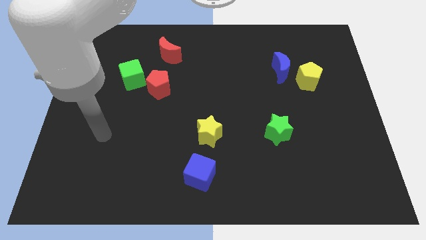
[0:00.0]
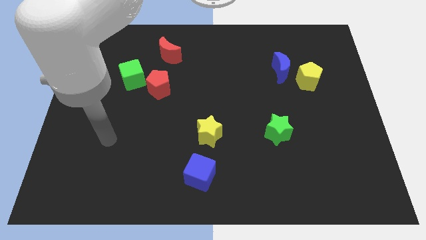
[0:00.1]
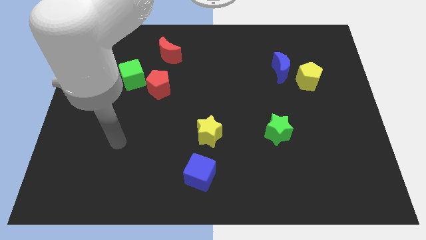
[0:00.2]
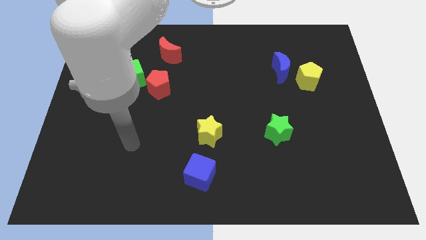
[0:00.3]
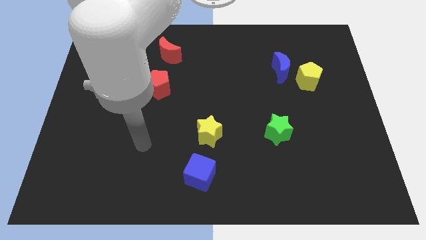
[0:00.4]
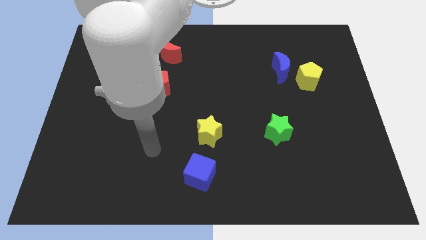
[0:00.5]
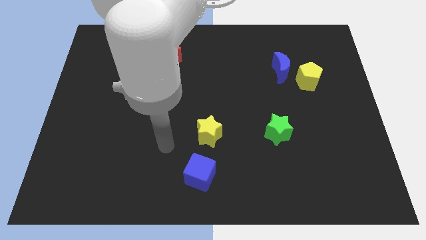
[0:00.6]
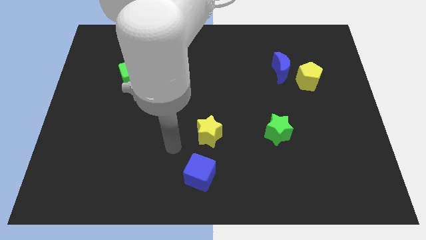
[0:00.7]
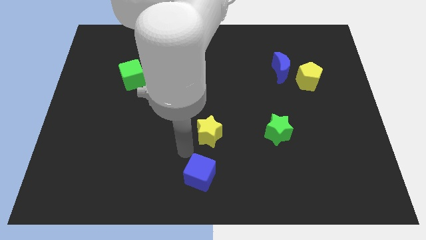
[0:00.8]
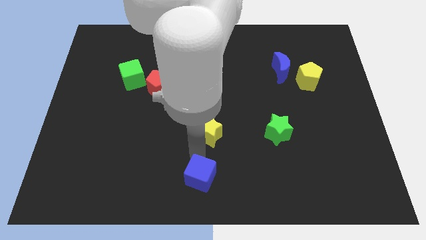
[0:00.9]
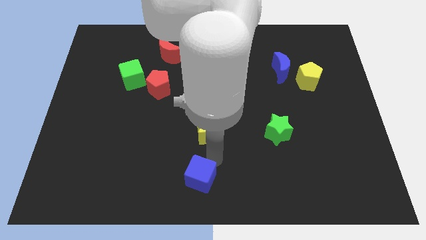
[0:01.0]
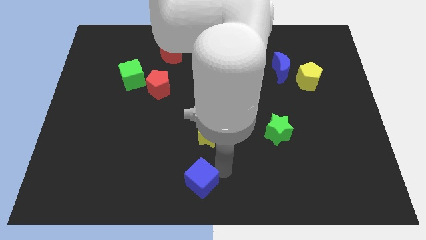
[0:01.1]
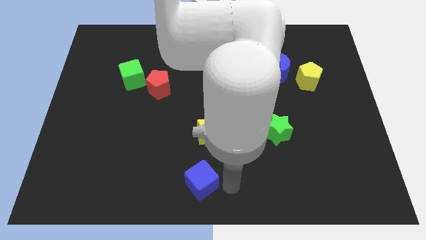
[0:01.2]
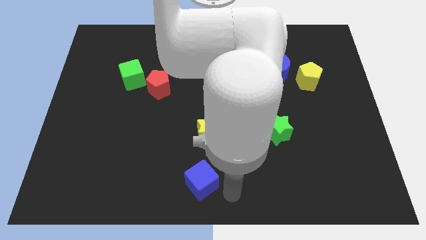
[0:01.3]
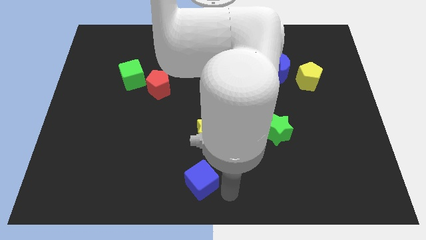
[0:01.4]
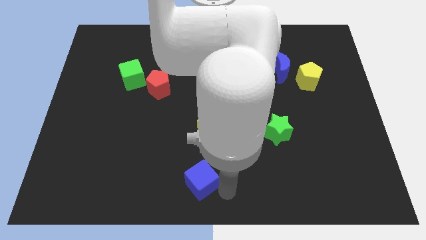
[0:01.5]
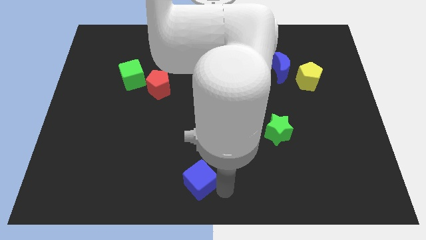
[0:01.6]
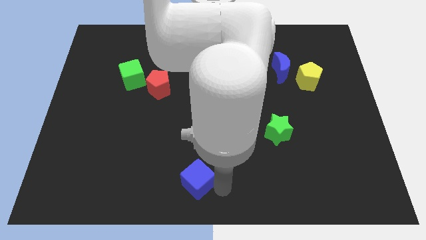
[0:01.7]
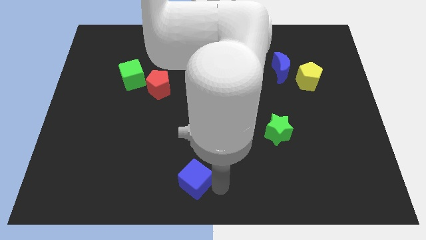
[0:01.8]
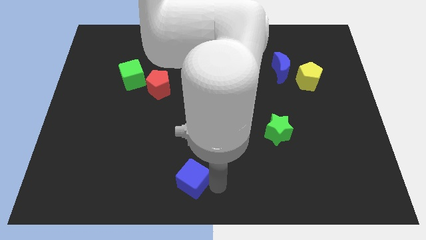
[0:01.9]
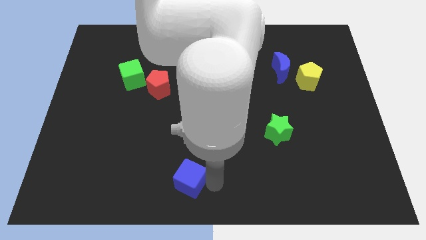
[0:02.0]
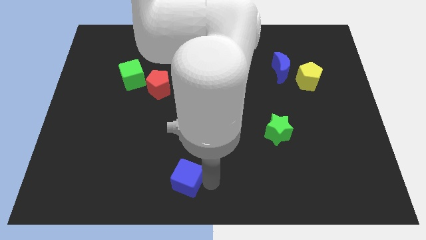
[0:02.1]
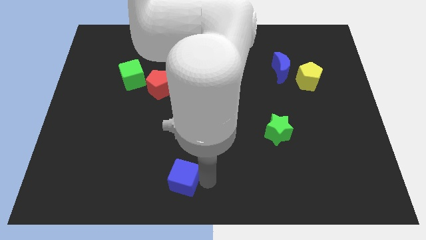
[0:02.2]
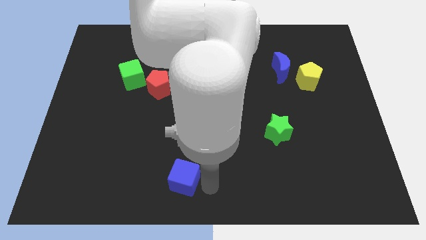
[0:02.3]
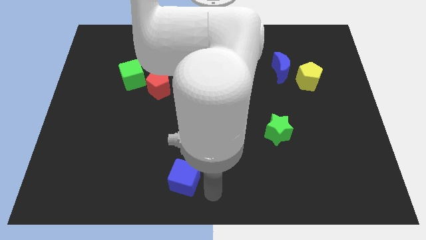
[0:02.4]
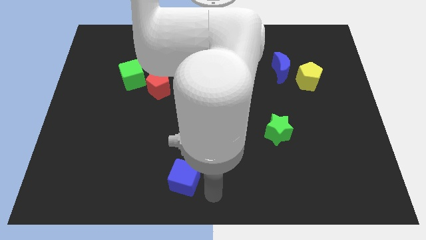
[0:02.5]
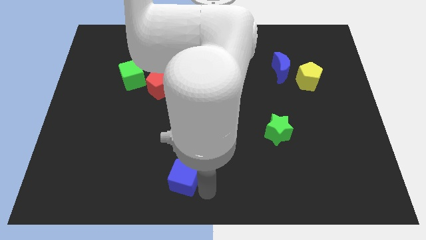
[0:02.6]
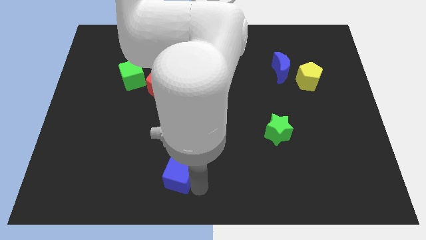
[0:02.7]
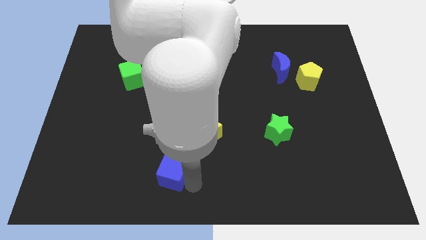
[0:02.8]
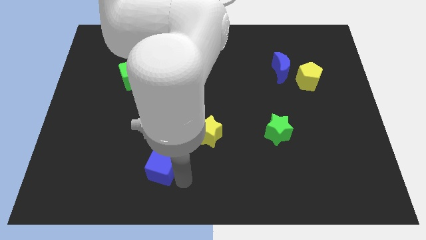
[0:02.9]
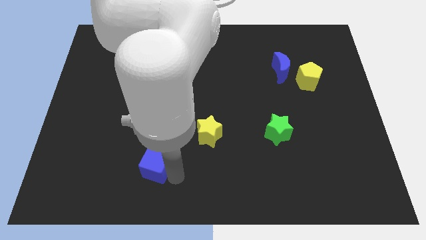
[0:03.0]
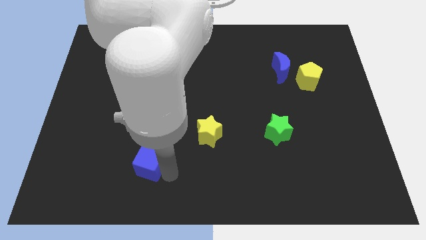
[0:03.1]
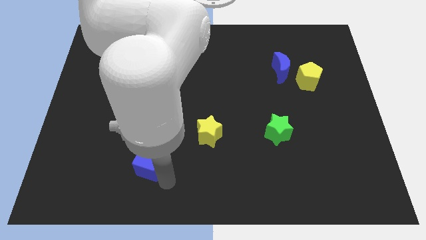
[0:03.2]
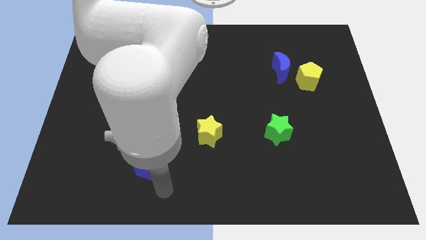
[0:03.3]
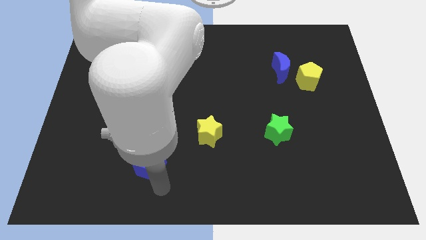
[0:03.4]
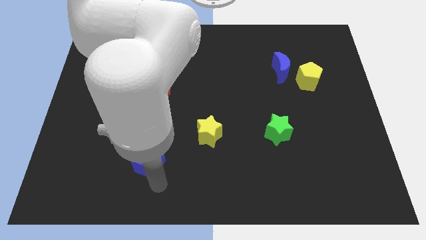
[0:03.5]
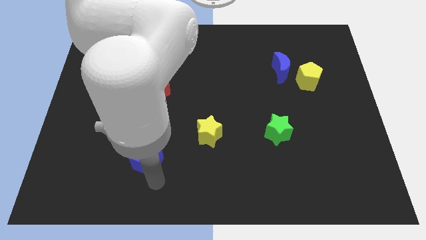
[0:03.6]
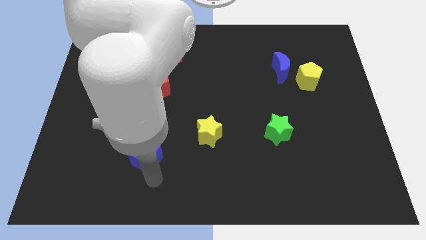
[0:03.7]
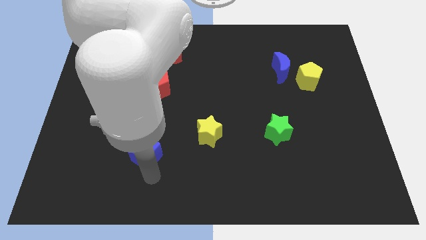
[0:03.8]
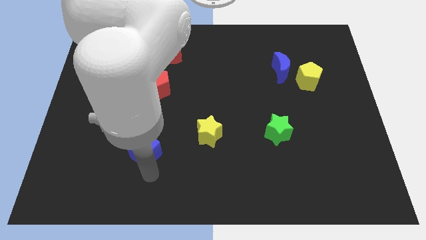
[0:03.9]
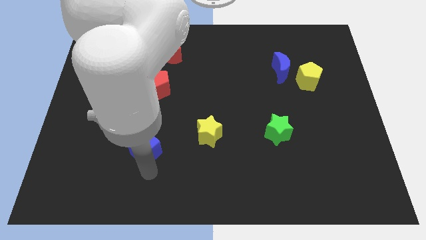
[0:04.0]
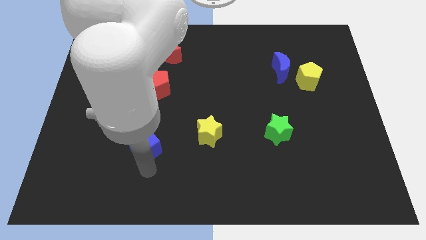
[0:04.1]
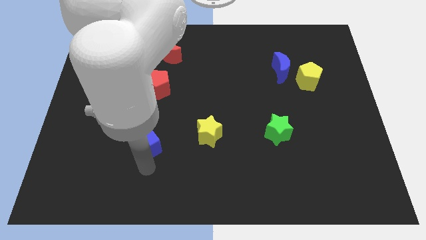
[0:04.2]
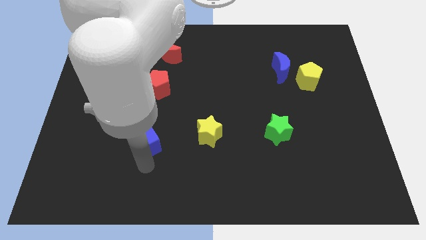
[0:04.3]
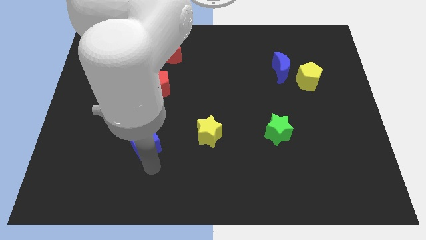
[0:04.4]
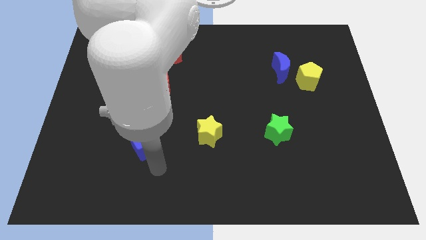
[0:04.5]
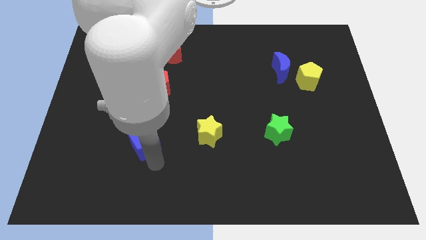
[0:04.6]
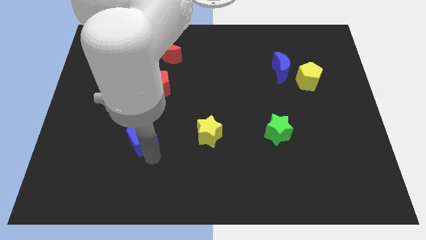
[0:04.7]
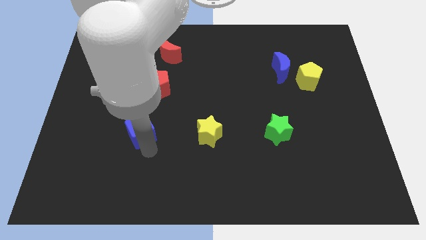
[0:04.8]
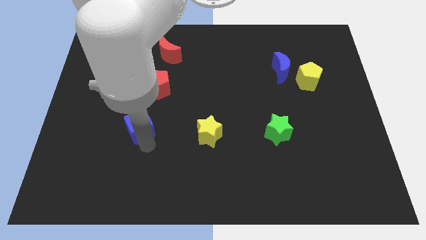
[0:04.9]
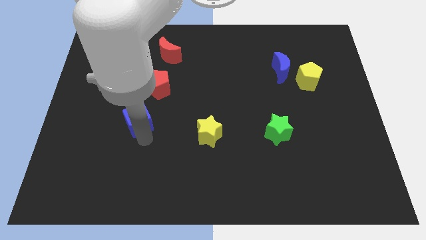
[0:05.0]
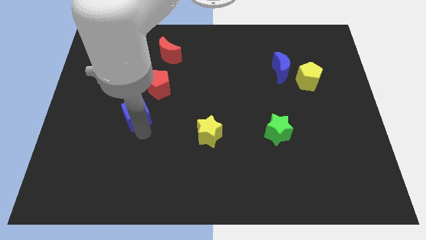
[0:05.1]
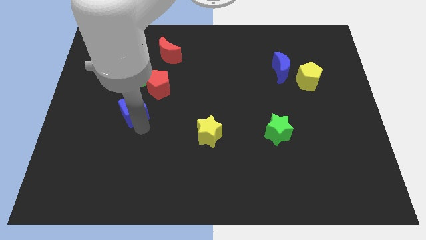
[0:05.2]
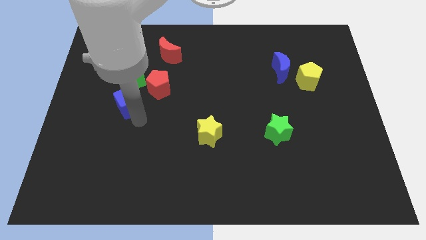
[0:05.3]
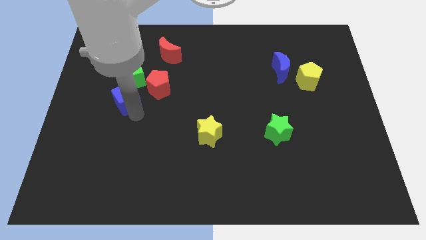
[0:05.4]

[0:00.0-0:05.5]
slide the blue cube just left of the red pentagon
